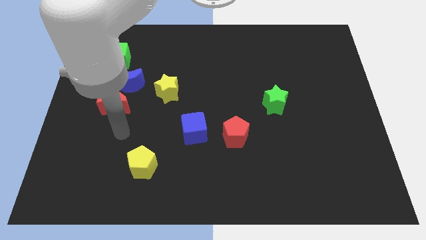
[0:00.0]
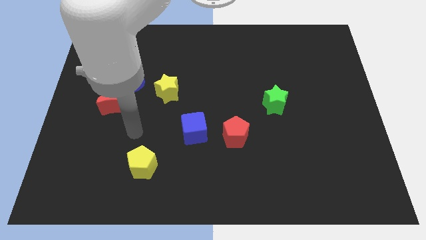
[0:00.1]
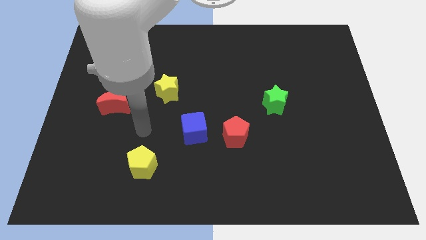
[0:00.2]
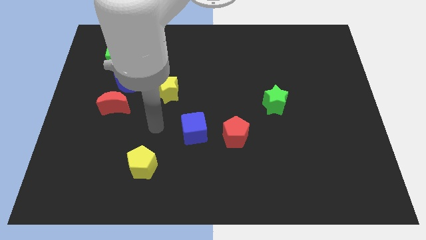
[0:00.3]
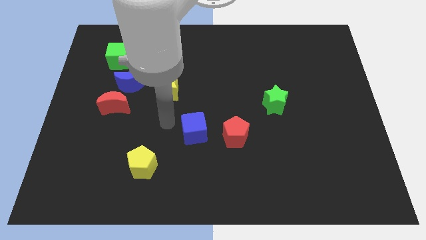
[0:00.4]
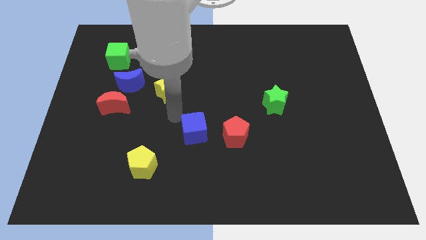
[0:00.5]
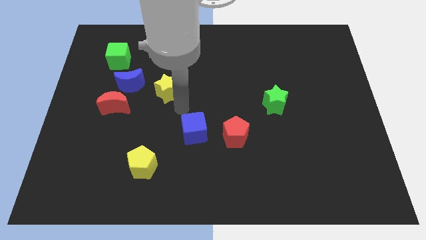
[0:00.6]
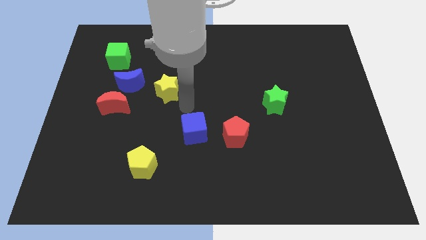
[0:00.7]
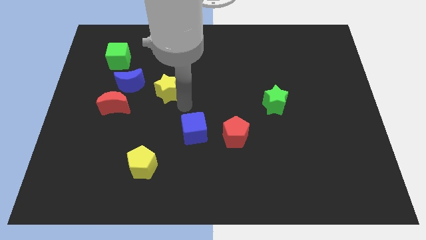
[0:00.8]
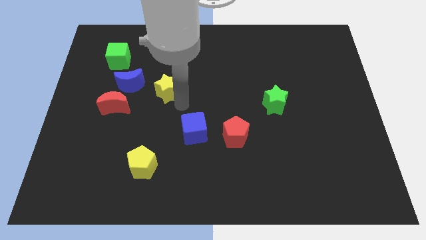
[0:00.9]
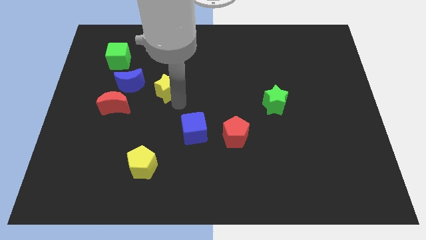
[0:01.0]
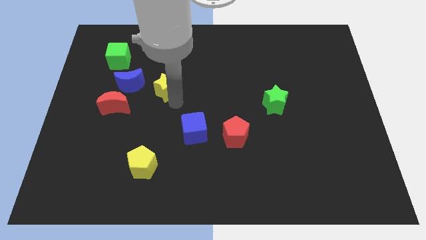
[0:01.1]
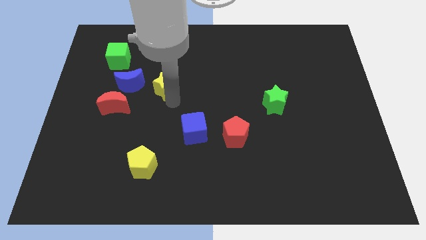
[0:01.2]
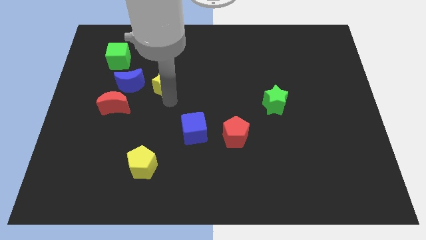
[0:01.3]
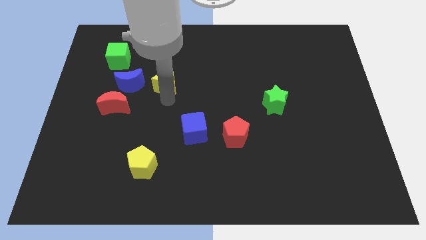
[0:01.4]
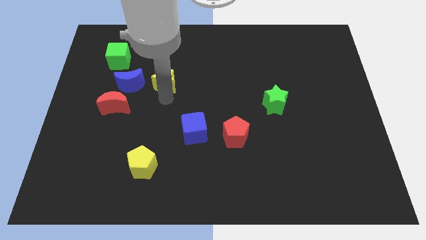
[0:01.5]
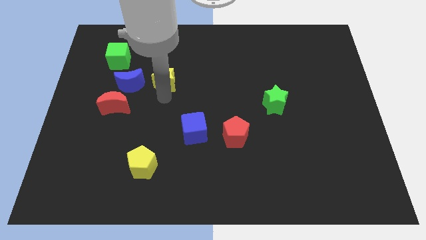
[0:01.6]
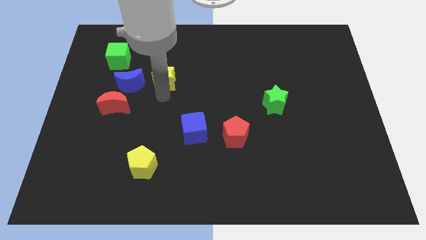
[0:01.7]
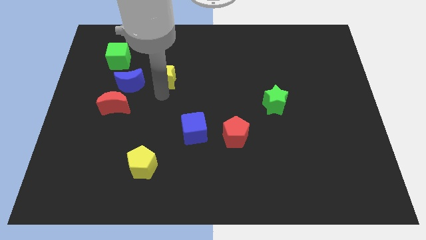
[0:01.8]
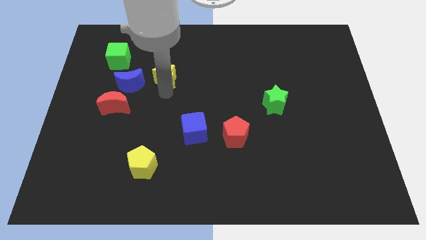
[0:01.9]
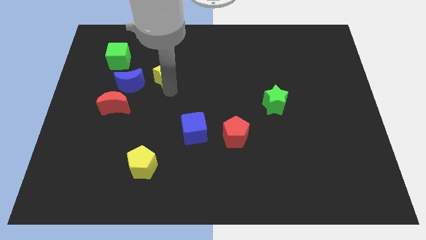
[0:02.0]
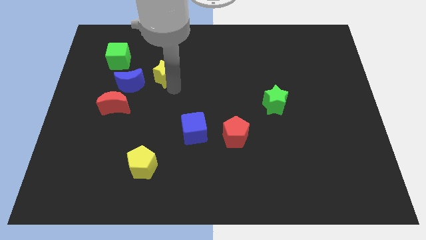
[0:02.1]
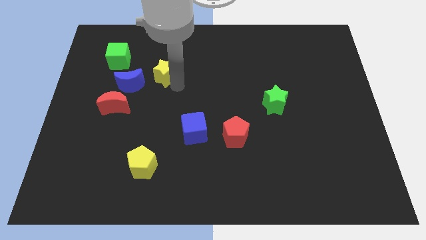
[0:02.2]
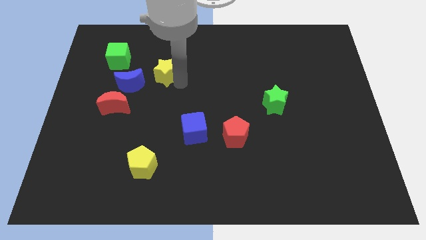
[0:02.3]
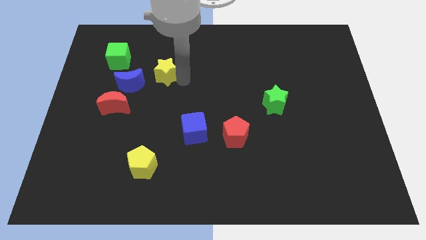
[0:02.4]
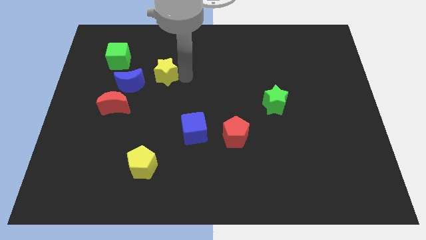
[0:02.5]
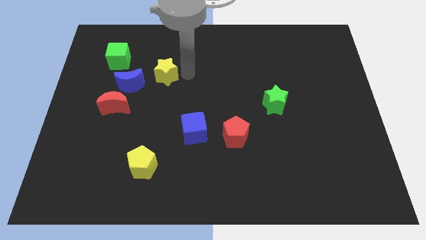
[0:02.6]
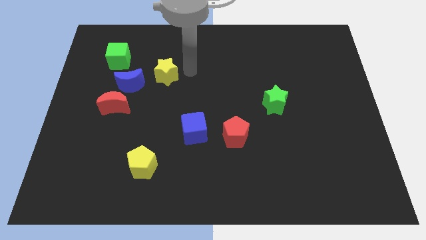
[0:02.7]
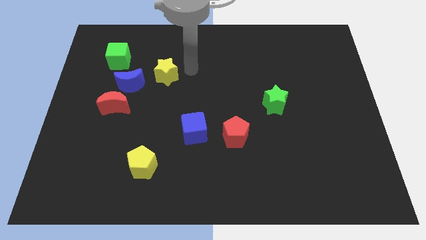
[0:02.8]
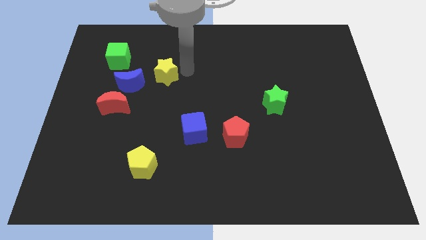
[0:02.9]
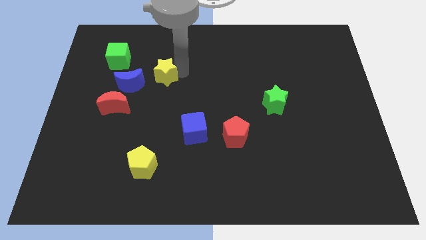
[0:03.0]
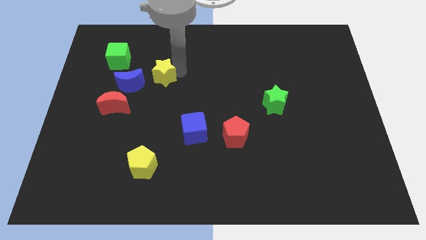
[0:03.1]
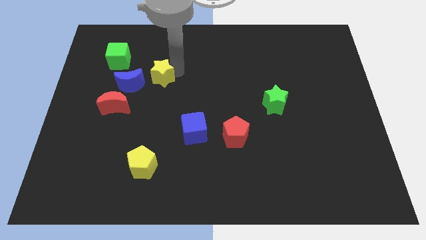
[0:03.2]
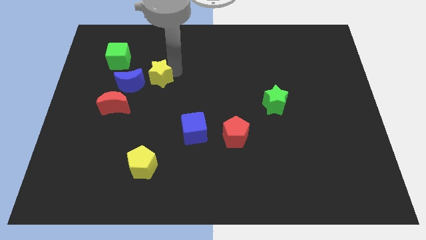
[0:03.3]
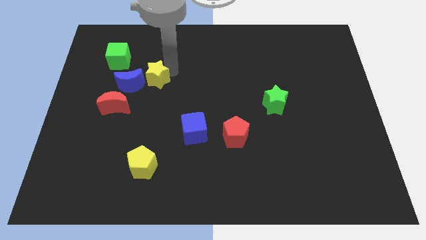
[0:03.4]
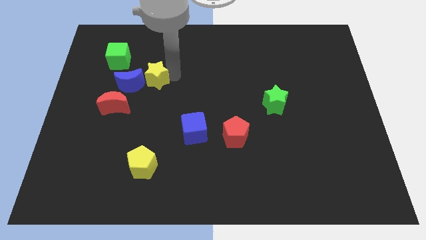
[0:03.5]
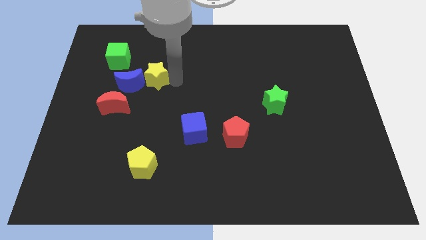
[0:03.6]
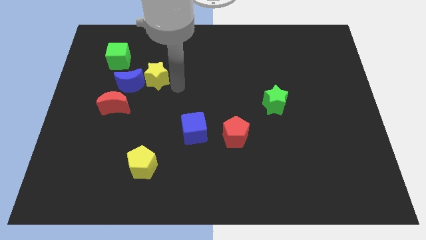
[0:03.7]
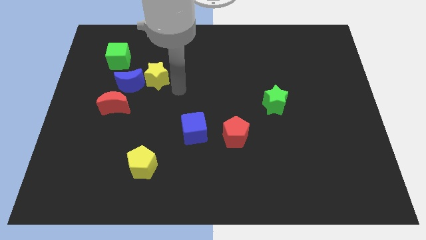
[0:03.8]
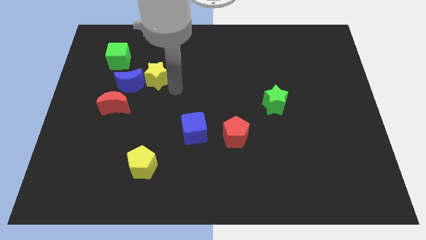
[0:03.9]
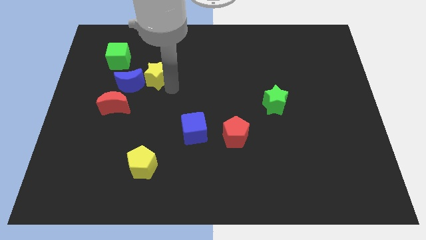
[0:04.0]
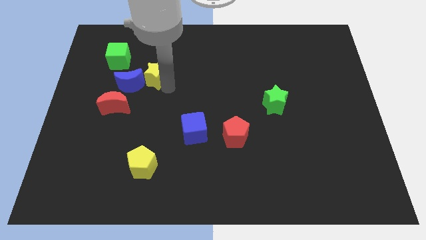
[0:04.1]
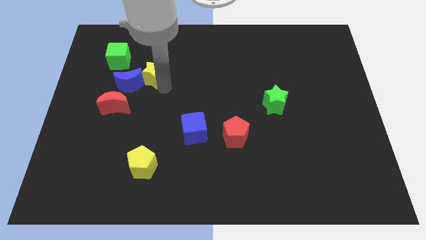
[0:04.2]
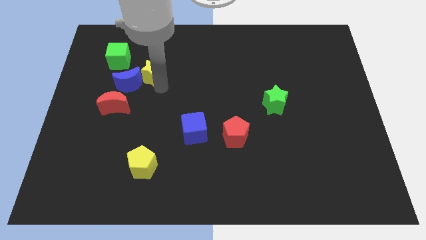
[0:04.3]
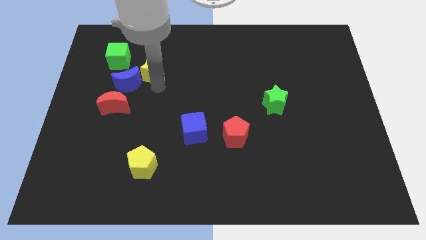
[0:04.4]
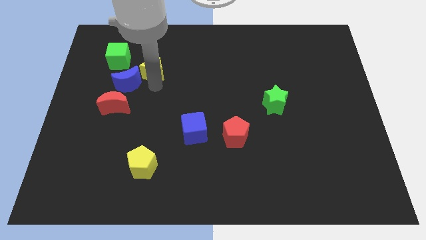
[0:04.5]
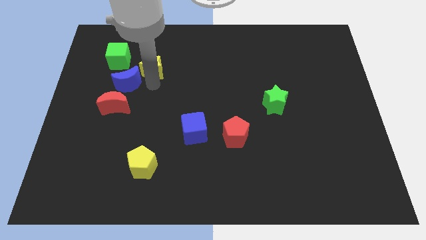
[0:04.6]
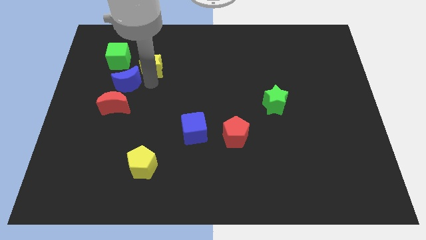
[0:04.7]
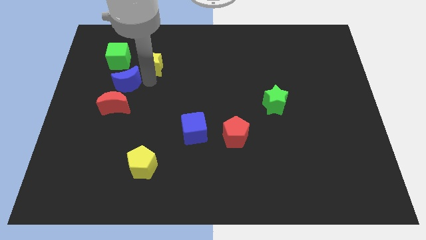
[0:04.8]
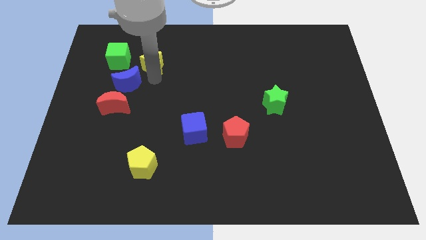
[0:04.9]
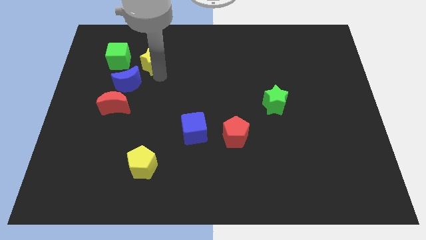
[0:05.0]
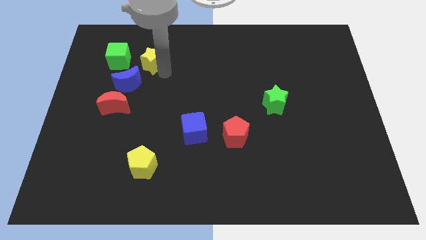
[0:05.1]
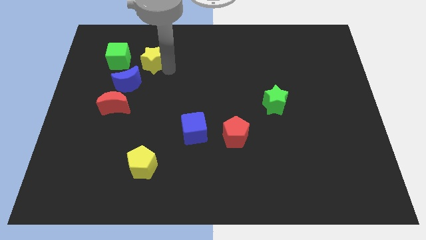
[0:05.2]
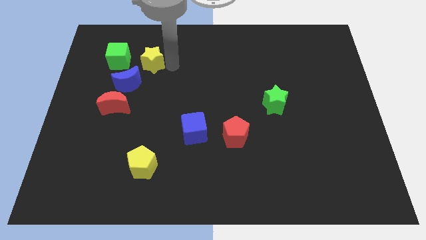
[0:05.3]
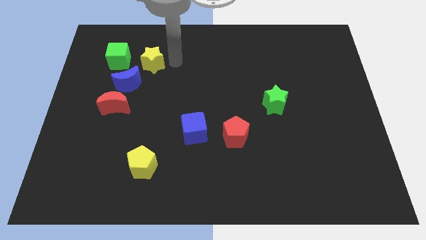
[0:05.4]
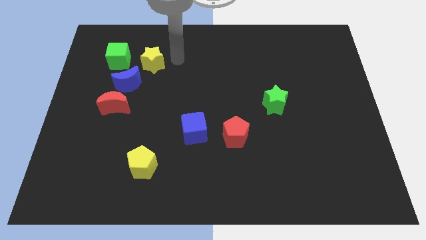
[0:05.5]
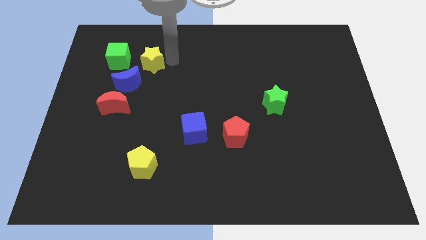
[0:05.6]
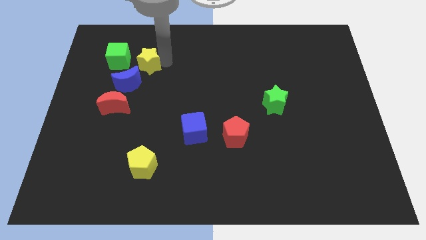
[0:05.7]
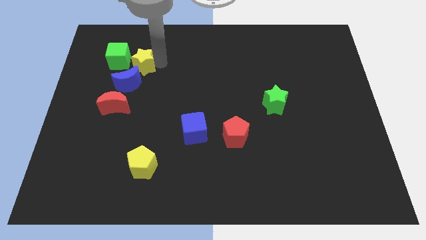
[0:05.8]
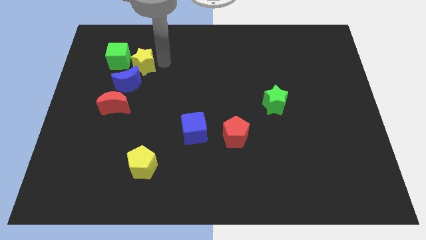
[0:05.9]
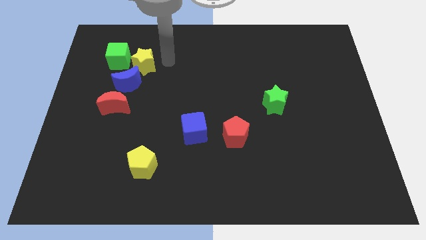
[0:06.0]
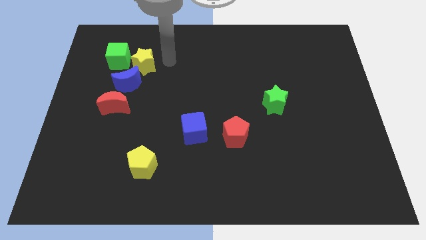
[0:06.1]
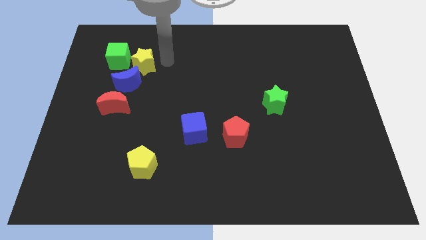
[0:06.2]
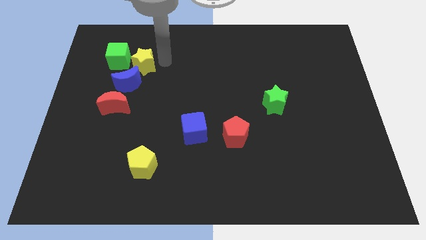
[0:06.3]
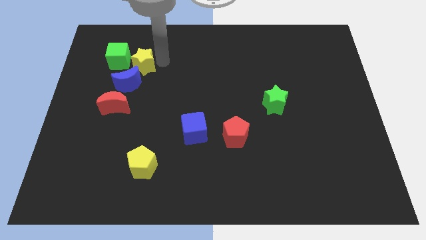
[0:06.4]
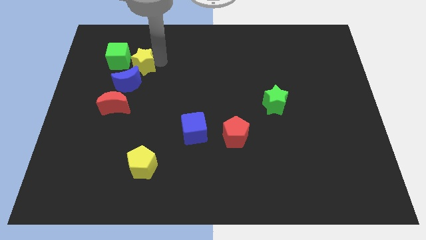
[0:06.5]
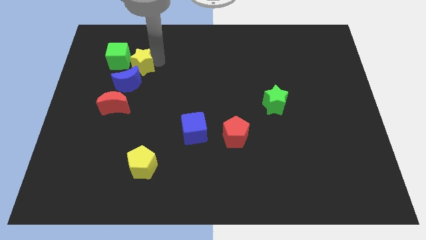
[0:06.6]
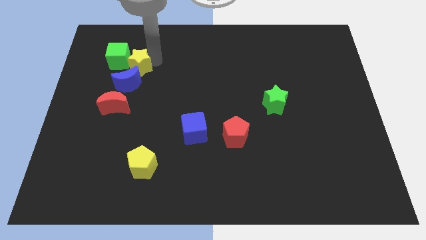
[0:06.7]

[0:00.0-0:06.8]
push the yellow star close to the green cube

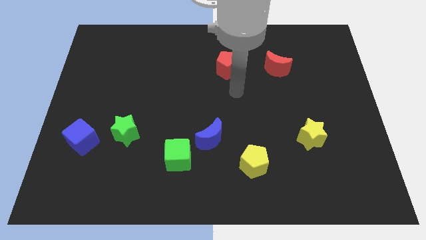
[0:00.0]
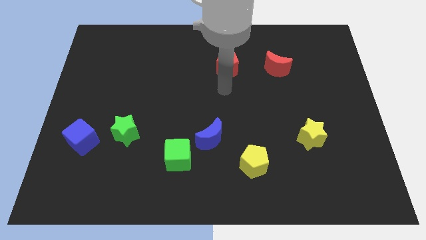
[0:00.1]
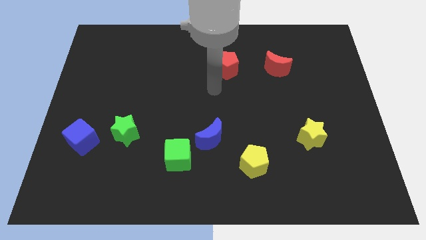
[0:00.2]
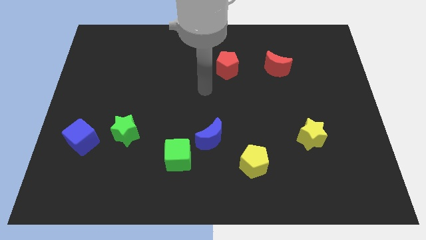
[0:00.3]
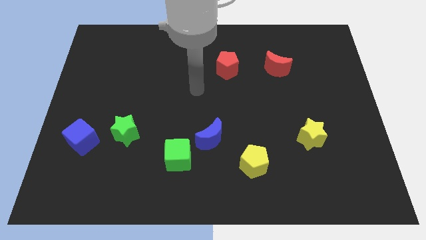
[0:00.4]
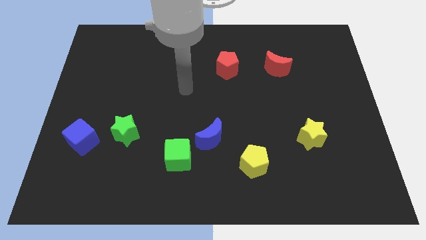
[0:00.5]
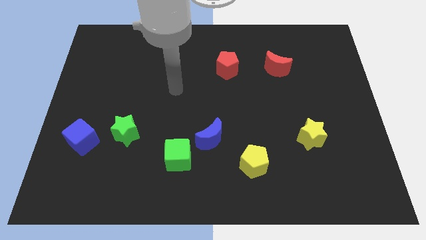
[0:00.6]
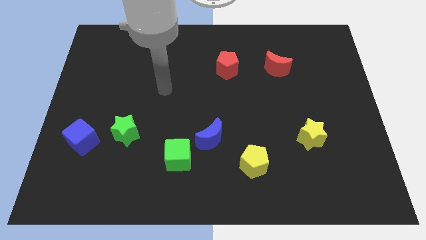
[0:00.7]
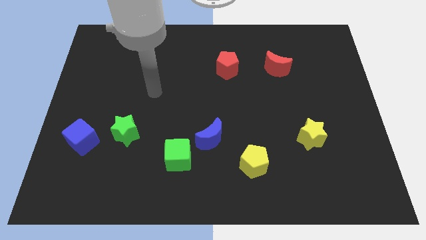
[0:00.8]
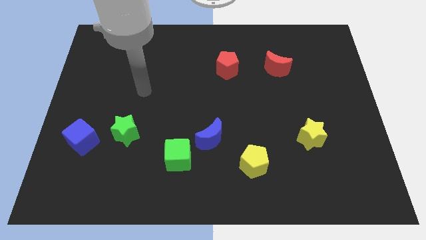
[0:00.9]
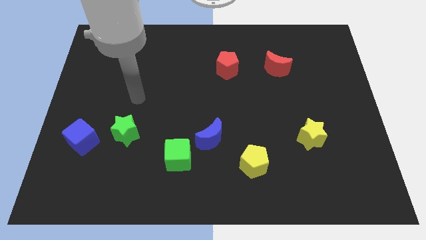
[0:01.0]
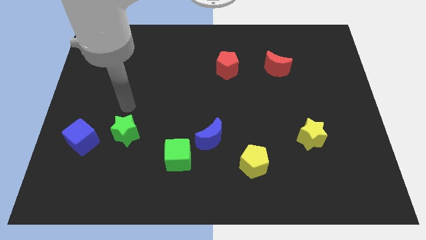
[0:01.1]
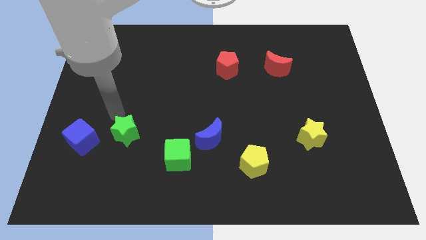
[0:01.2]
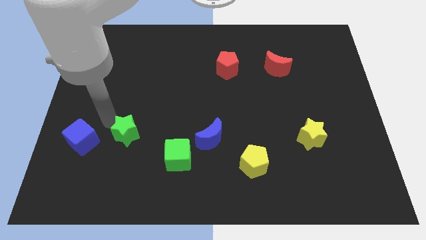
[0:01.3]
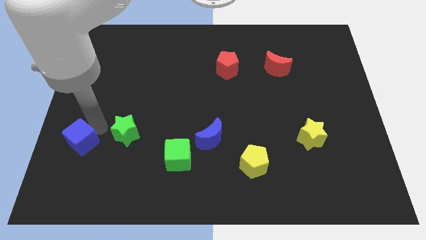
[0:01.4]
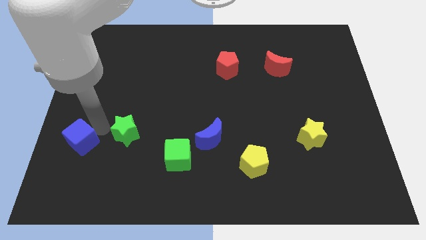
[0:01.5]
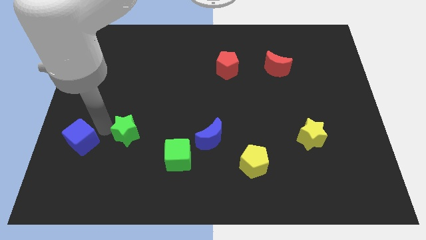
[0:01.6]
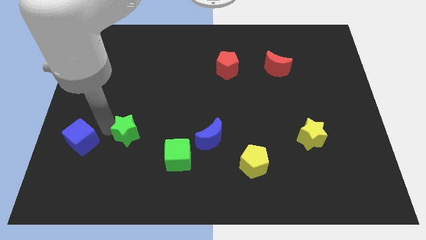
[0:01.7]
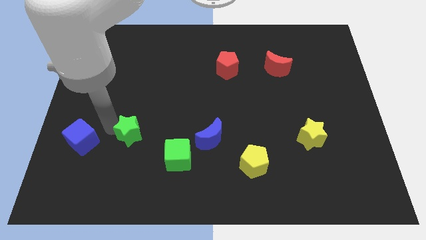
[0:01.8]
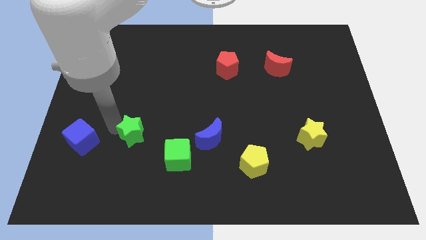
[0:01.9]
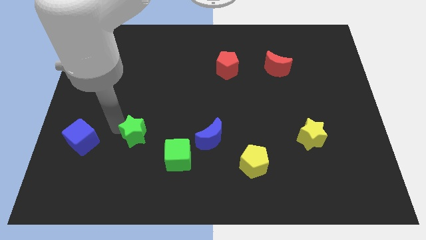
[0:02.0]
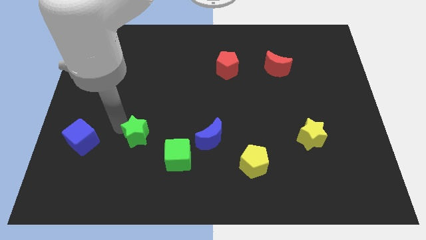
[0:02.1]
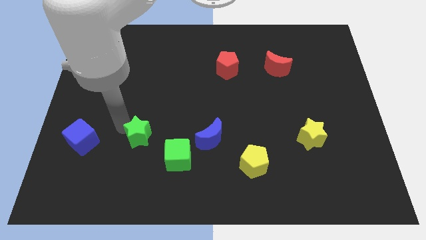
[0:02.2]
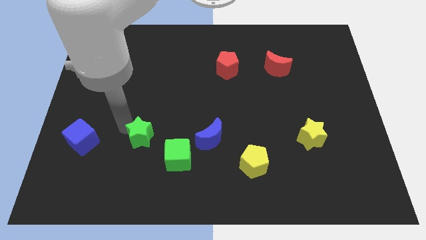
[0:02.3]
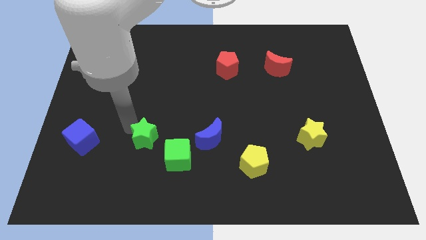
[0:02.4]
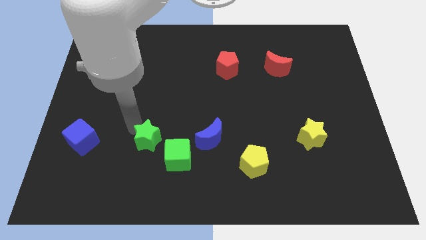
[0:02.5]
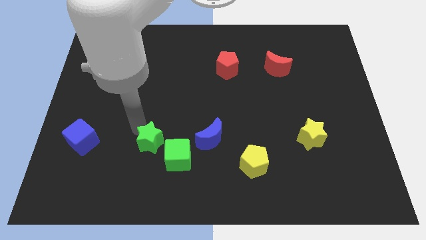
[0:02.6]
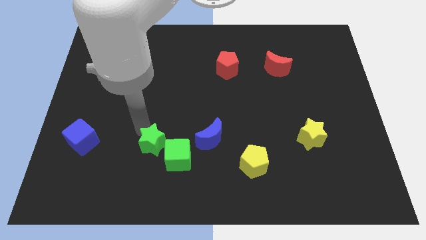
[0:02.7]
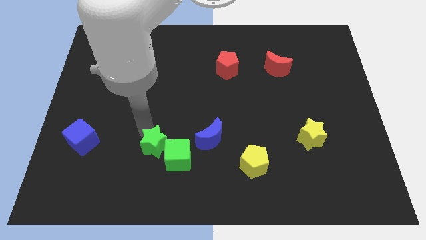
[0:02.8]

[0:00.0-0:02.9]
move the green star next to the green cube
